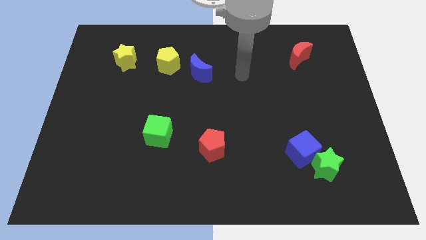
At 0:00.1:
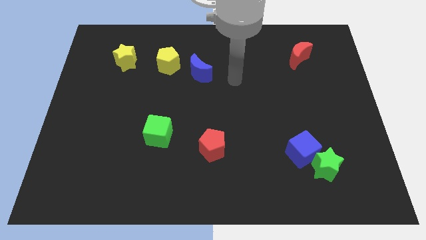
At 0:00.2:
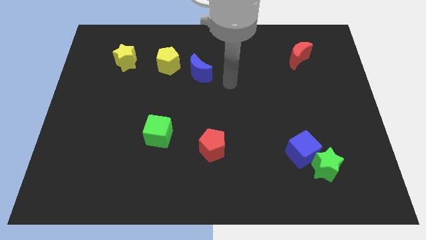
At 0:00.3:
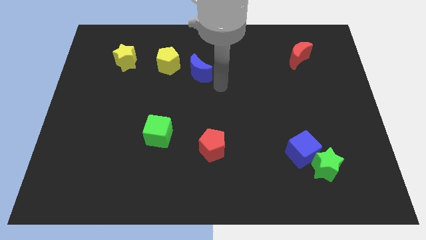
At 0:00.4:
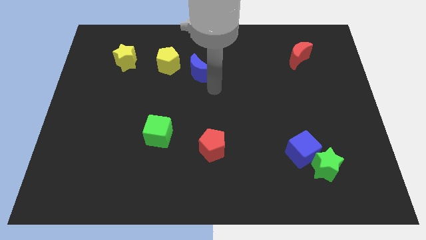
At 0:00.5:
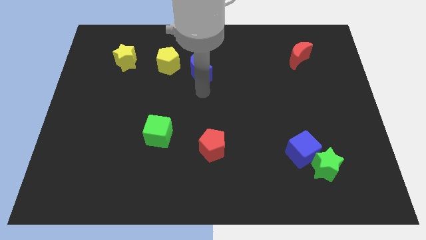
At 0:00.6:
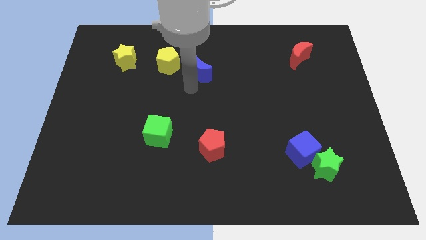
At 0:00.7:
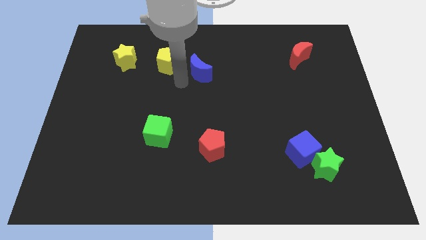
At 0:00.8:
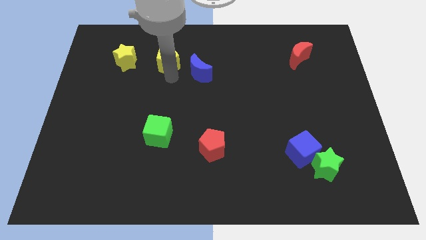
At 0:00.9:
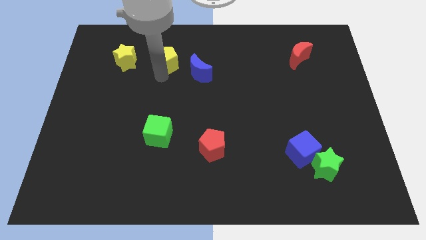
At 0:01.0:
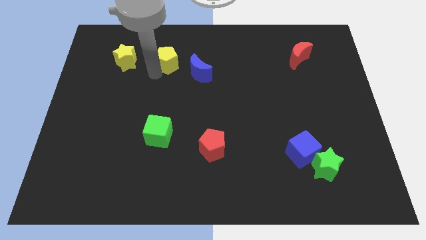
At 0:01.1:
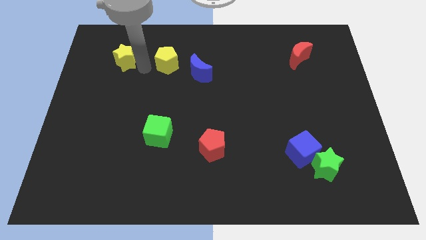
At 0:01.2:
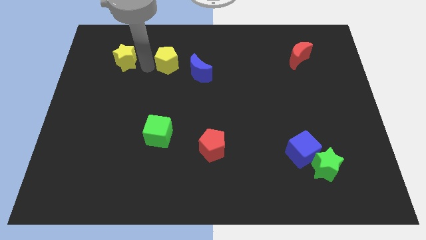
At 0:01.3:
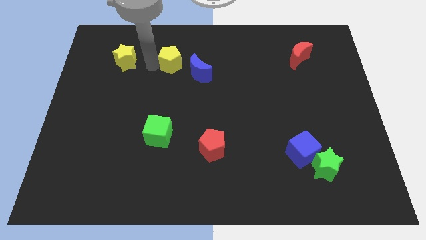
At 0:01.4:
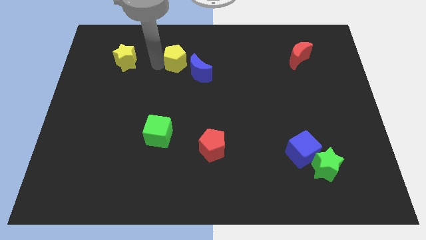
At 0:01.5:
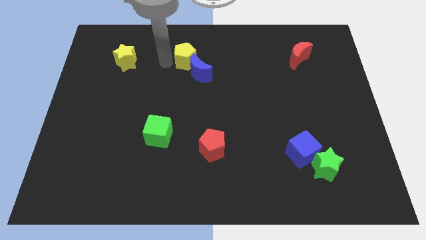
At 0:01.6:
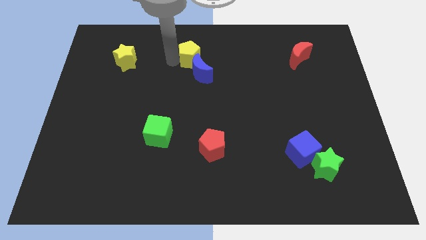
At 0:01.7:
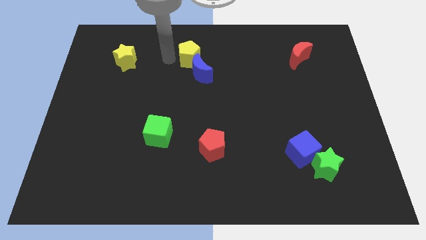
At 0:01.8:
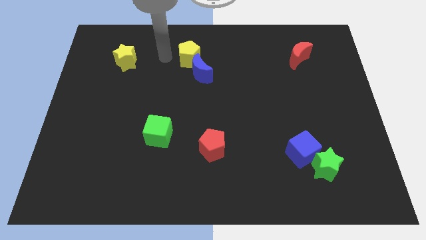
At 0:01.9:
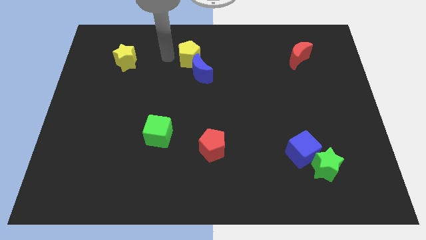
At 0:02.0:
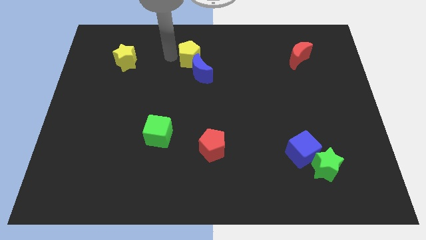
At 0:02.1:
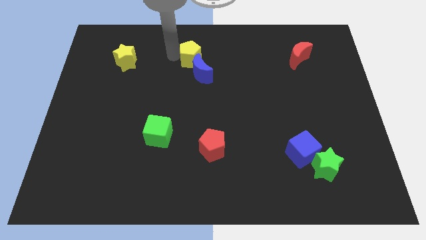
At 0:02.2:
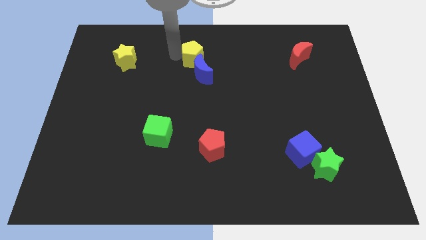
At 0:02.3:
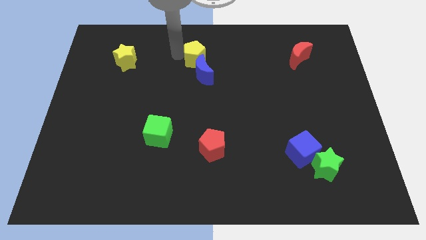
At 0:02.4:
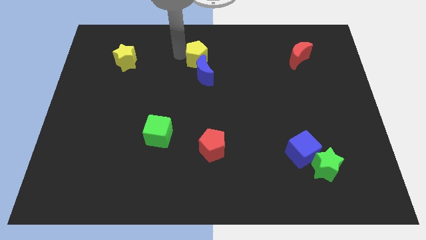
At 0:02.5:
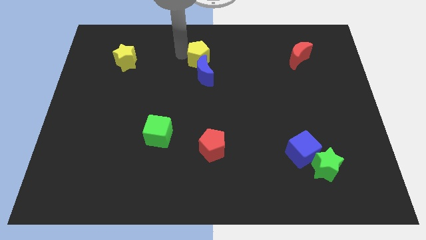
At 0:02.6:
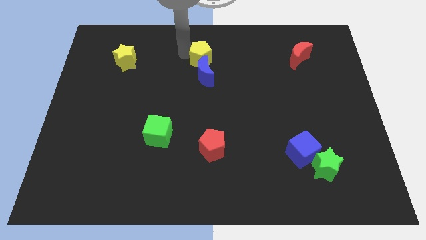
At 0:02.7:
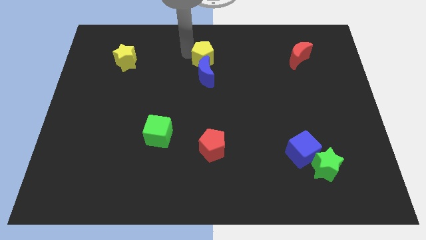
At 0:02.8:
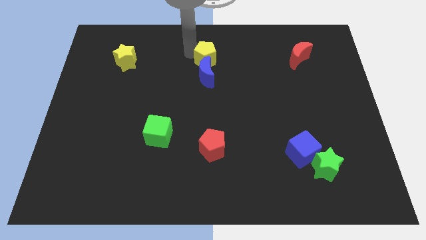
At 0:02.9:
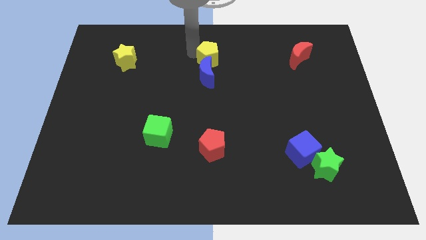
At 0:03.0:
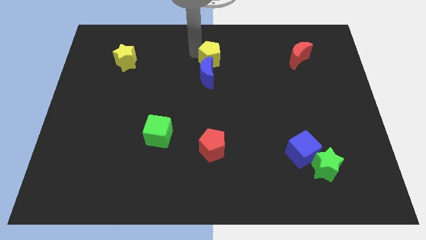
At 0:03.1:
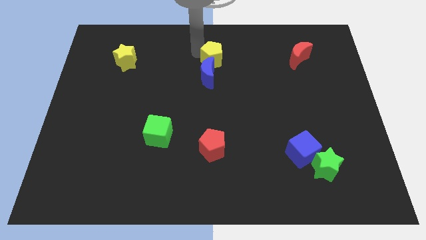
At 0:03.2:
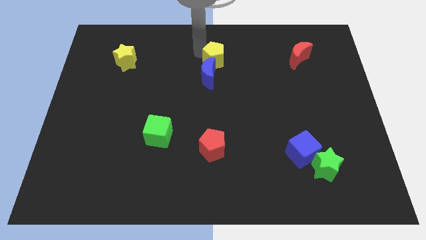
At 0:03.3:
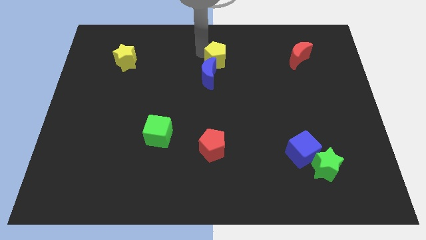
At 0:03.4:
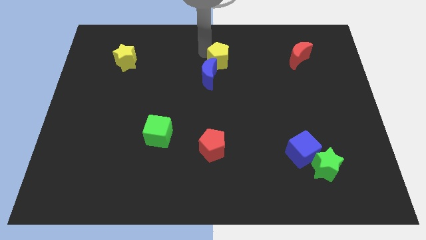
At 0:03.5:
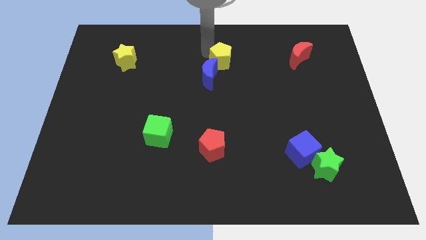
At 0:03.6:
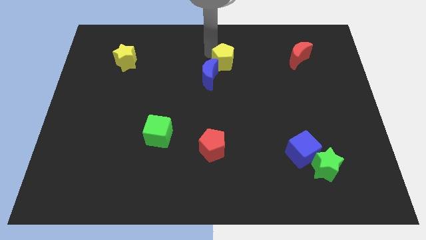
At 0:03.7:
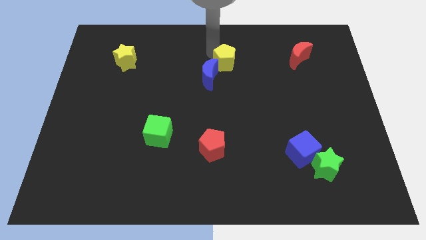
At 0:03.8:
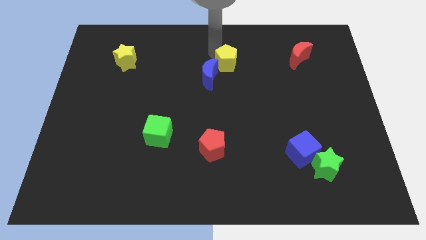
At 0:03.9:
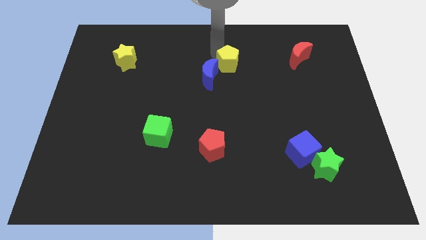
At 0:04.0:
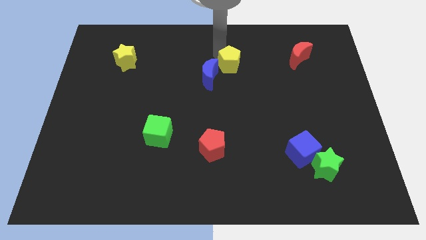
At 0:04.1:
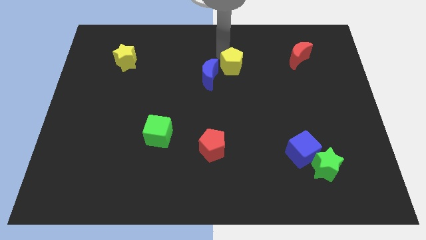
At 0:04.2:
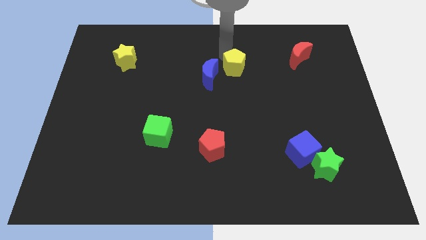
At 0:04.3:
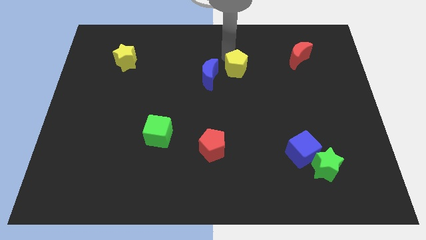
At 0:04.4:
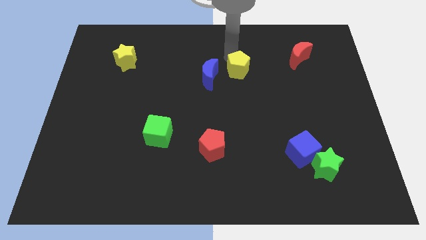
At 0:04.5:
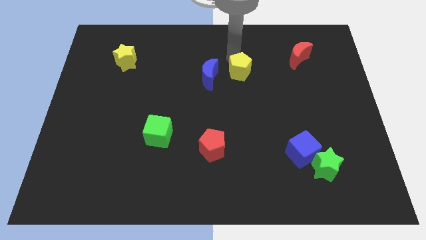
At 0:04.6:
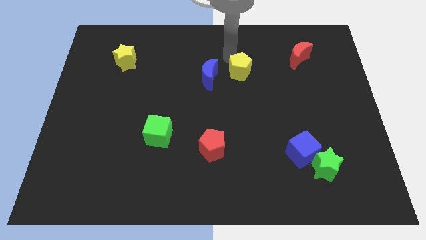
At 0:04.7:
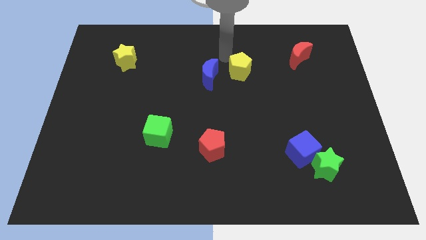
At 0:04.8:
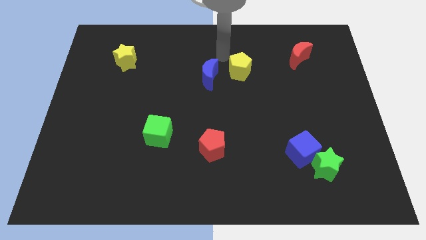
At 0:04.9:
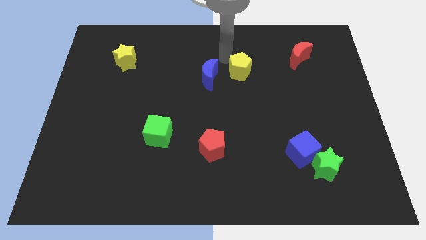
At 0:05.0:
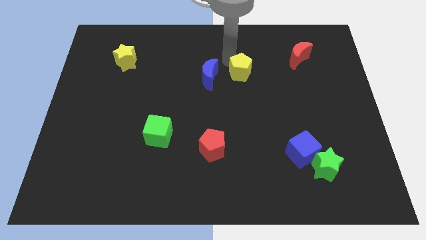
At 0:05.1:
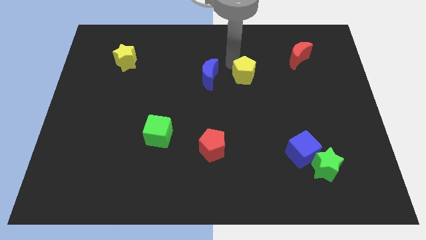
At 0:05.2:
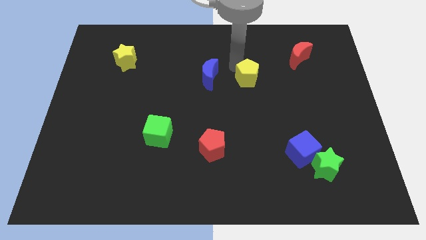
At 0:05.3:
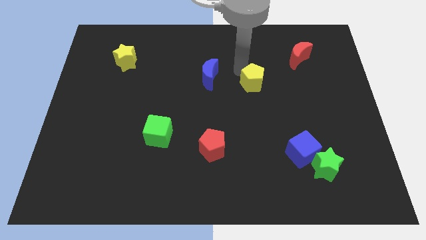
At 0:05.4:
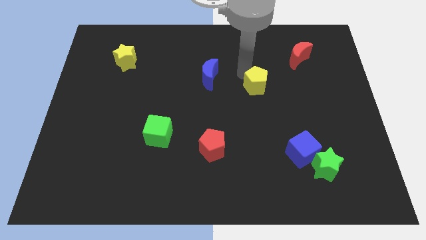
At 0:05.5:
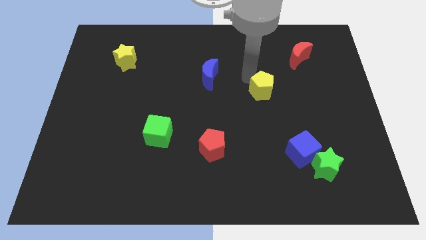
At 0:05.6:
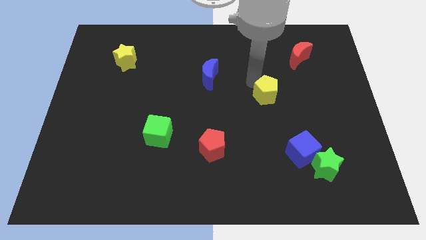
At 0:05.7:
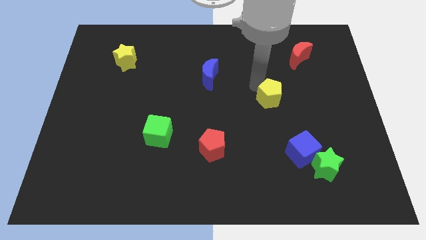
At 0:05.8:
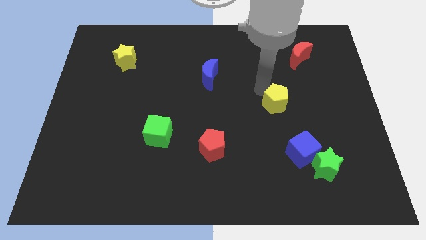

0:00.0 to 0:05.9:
put the yellow pentagon to the top side of the blue cube

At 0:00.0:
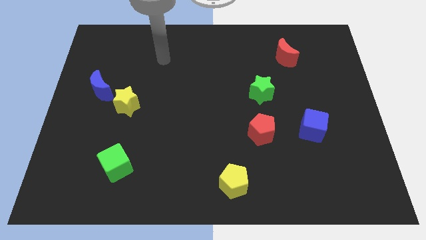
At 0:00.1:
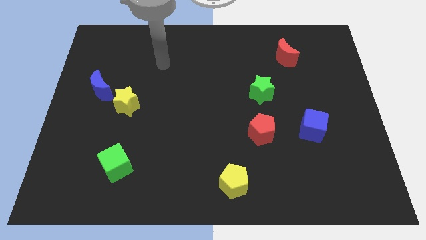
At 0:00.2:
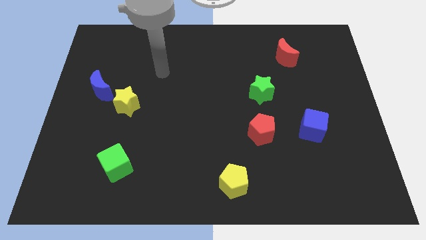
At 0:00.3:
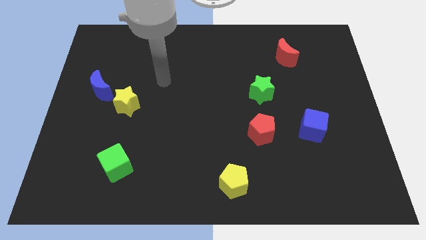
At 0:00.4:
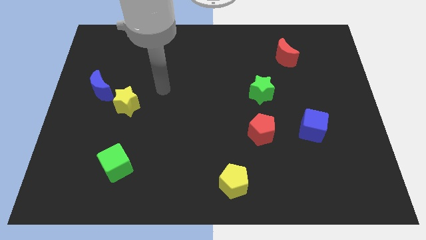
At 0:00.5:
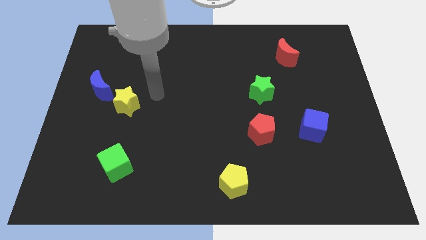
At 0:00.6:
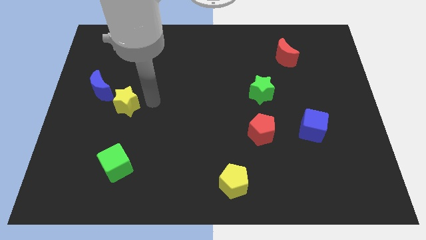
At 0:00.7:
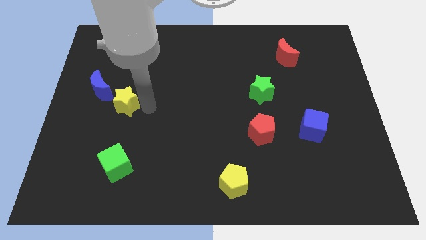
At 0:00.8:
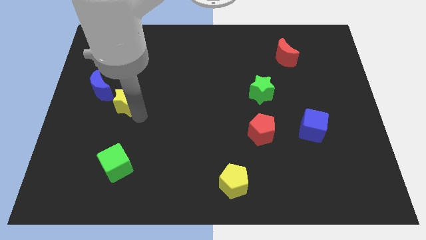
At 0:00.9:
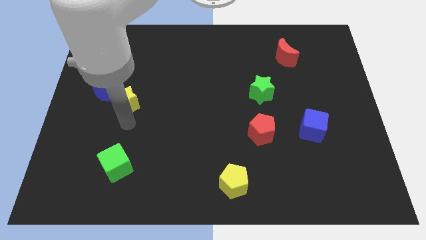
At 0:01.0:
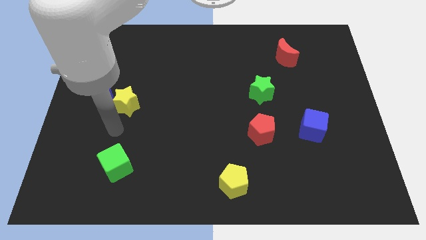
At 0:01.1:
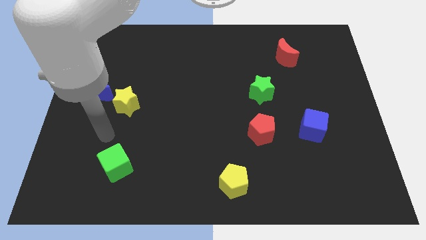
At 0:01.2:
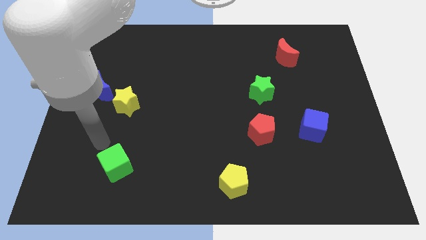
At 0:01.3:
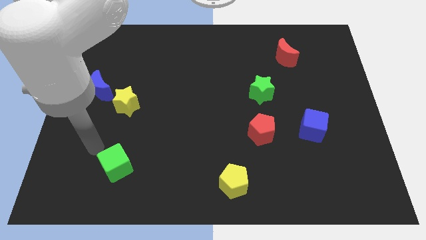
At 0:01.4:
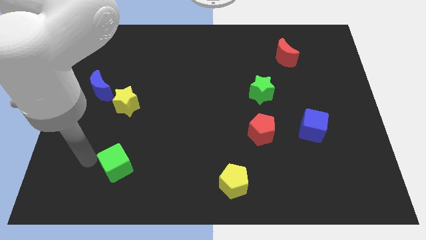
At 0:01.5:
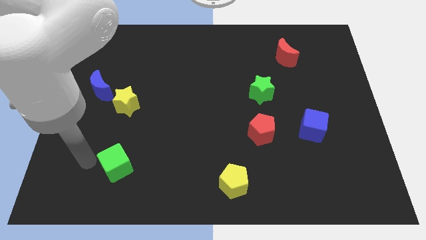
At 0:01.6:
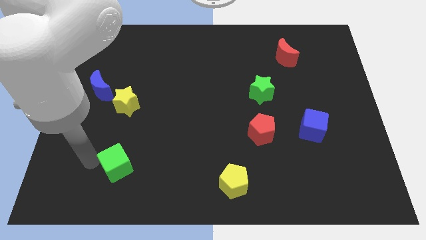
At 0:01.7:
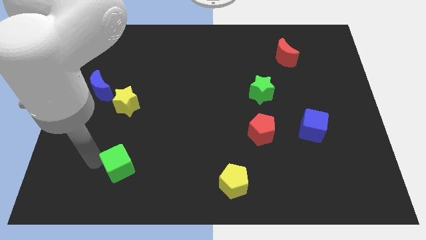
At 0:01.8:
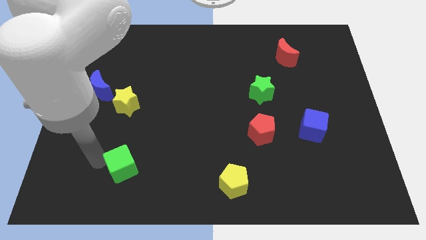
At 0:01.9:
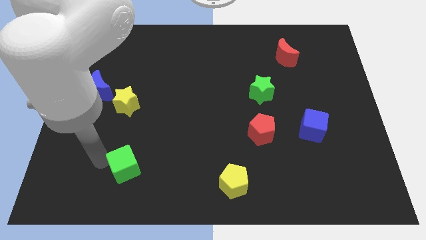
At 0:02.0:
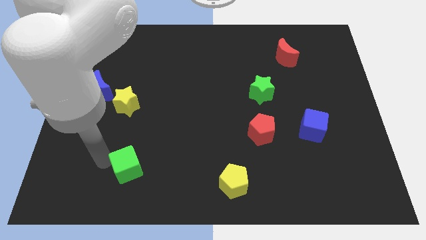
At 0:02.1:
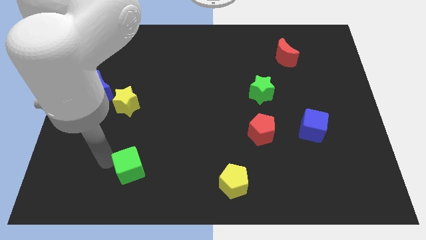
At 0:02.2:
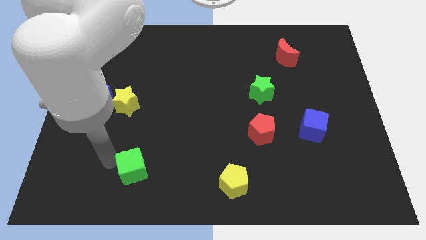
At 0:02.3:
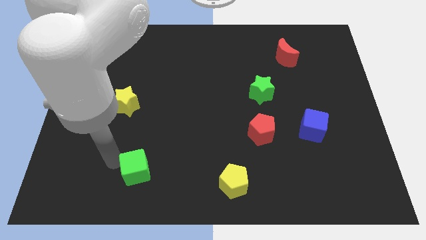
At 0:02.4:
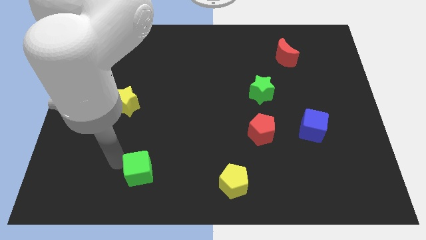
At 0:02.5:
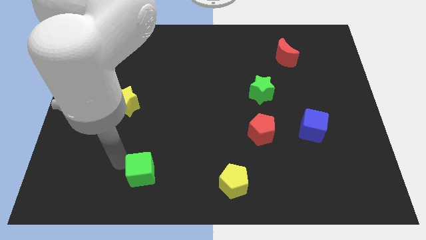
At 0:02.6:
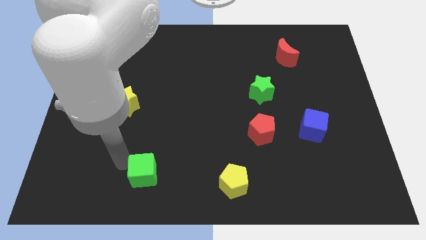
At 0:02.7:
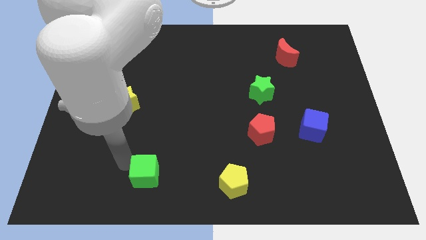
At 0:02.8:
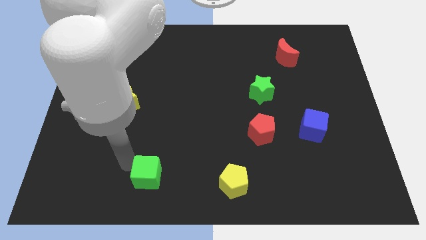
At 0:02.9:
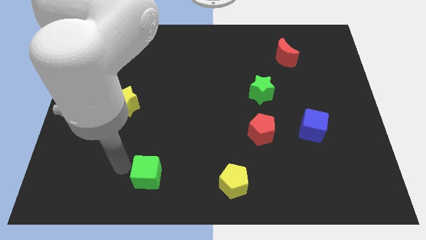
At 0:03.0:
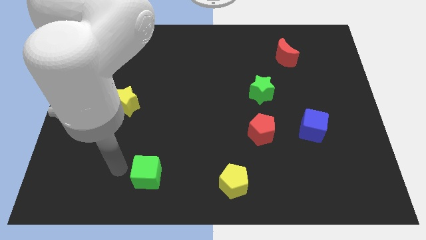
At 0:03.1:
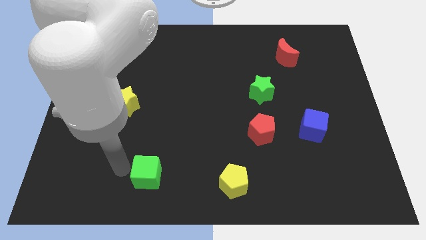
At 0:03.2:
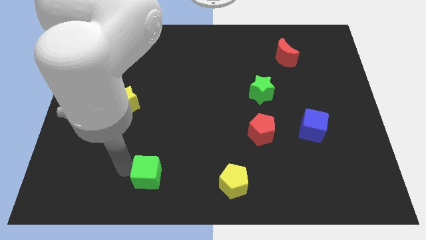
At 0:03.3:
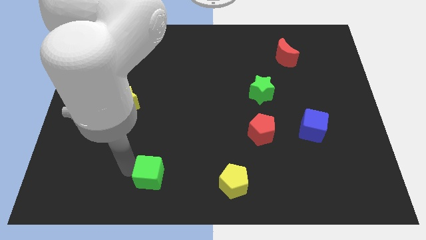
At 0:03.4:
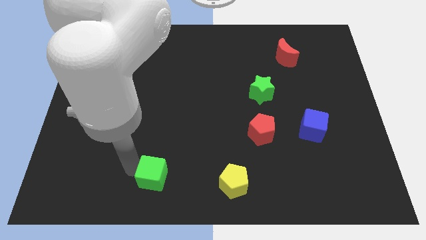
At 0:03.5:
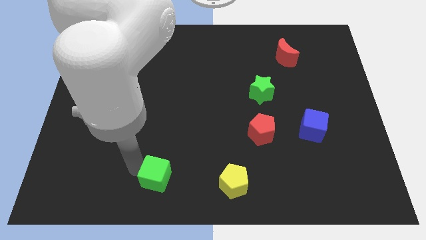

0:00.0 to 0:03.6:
move the green cube to the left side of the yellow pentagon
